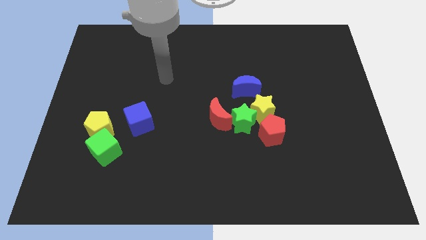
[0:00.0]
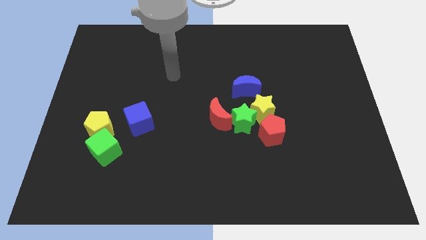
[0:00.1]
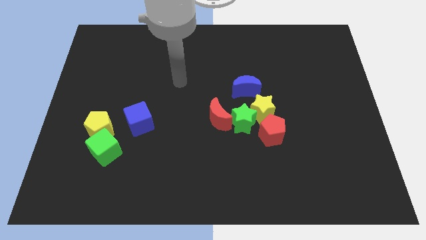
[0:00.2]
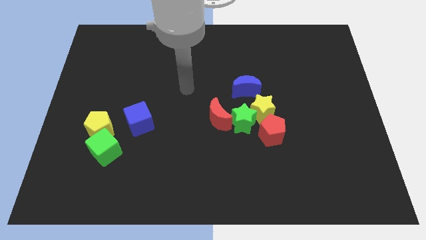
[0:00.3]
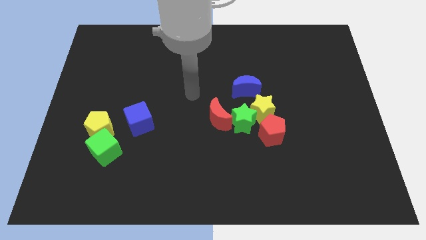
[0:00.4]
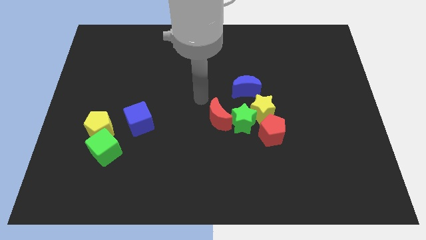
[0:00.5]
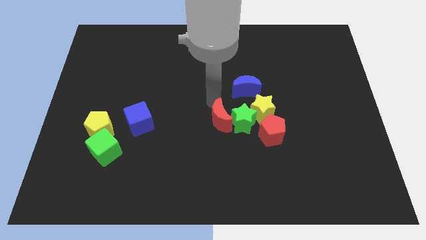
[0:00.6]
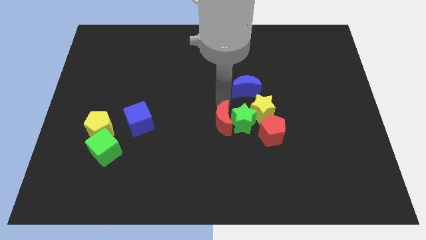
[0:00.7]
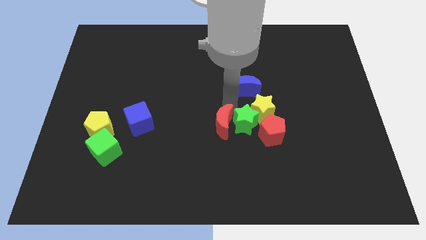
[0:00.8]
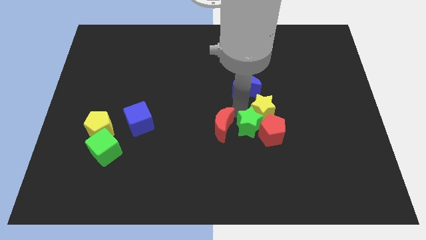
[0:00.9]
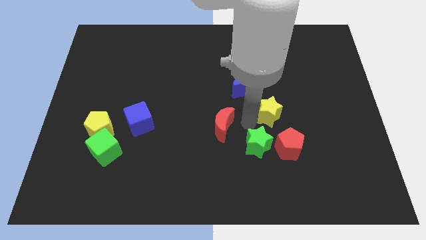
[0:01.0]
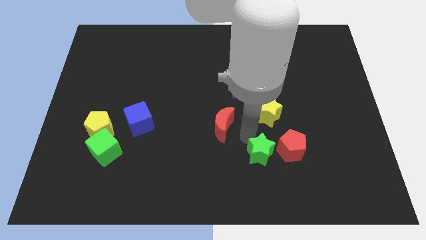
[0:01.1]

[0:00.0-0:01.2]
pull the red moon apart from the green star

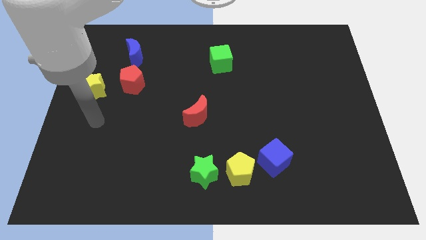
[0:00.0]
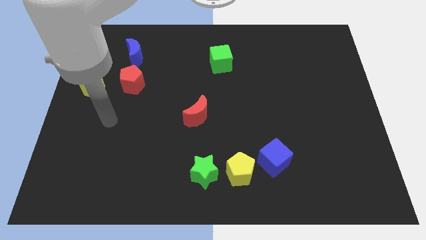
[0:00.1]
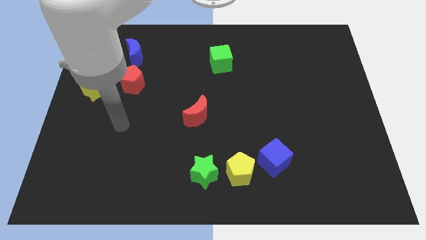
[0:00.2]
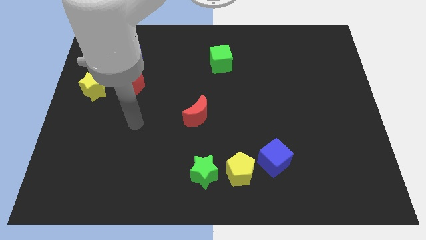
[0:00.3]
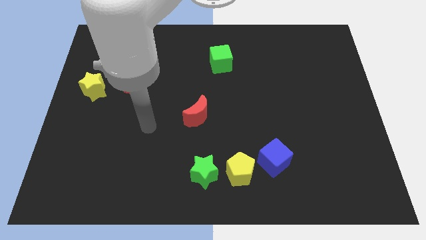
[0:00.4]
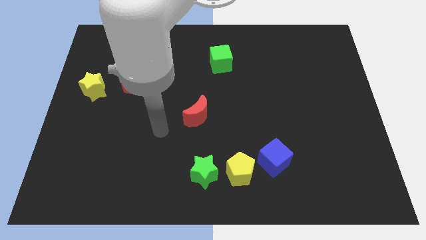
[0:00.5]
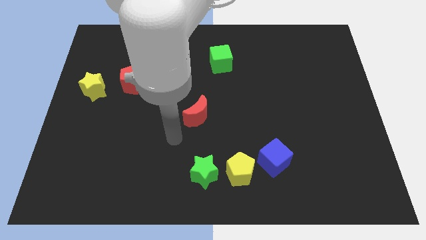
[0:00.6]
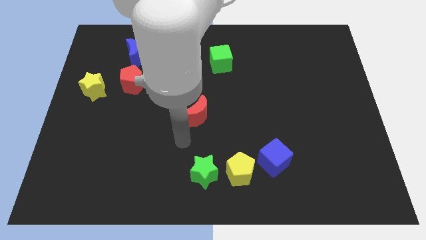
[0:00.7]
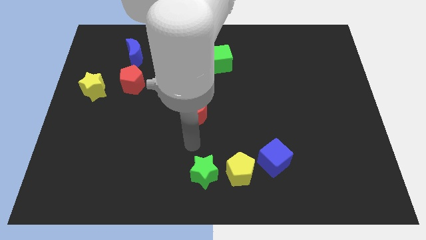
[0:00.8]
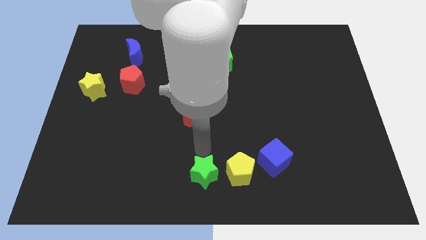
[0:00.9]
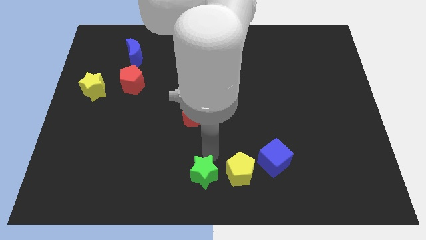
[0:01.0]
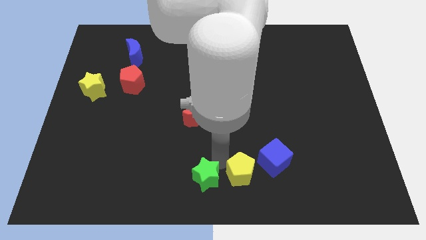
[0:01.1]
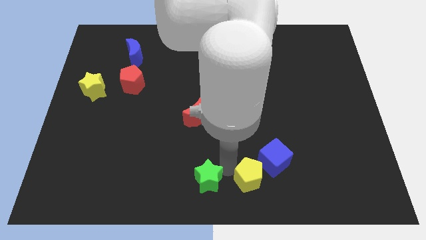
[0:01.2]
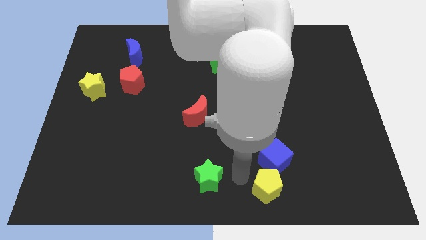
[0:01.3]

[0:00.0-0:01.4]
move the green star away from the yellow pentagon

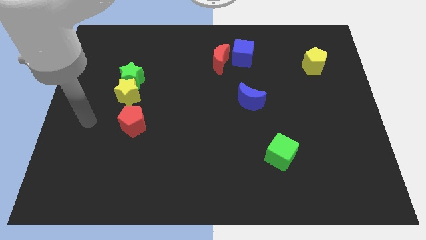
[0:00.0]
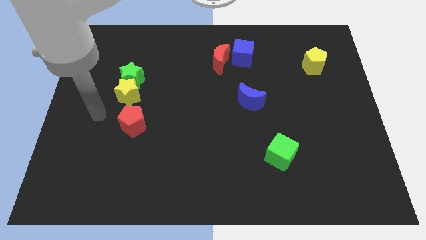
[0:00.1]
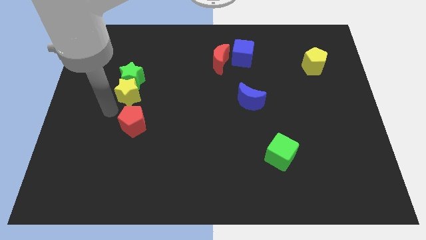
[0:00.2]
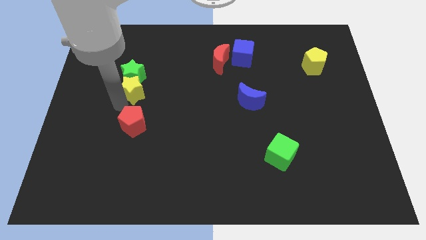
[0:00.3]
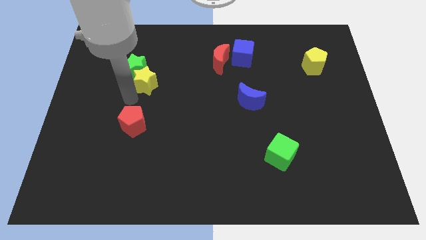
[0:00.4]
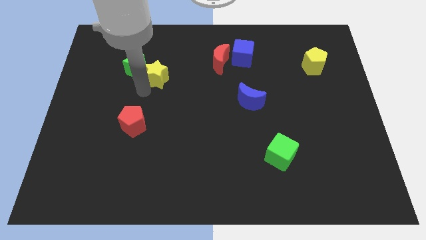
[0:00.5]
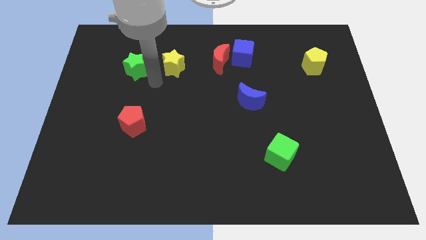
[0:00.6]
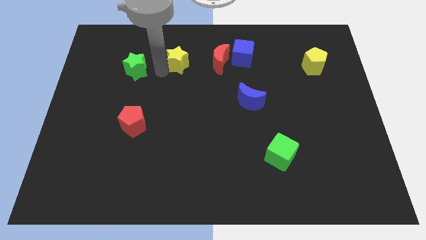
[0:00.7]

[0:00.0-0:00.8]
separate the green star from the yellow star

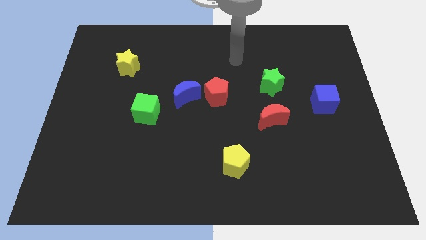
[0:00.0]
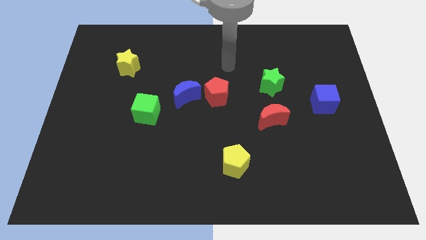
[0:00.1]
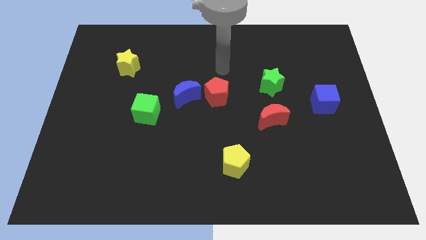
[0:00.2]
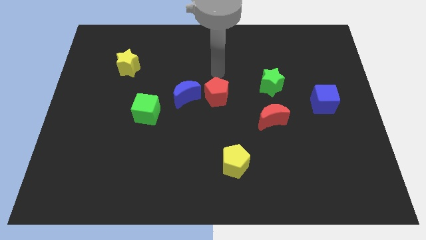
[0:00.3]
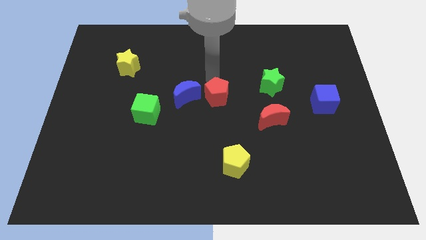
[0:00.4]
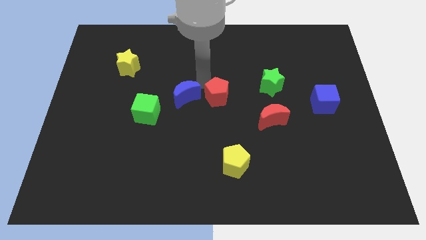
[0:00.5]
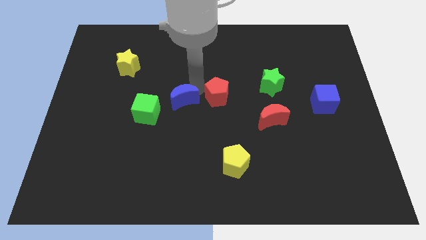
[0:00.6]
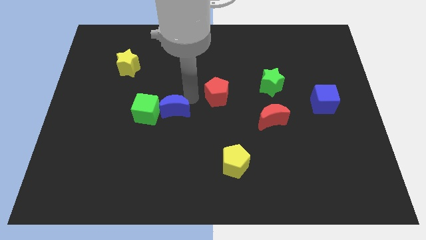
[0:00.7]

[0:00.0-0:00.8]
pull the red pentagon apart from the blue moon

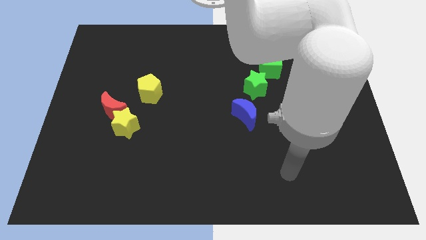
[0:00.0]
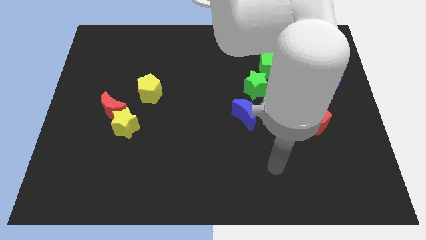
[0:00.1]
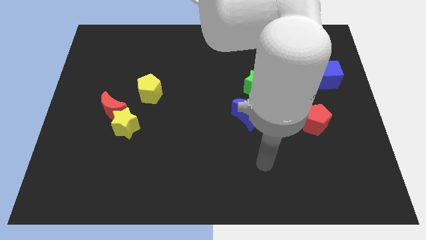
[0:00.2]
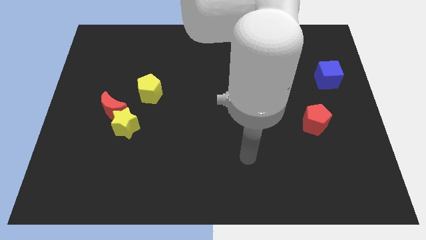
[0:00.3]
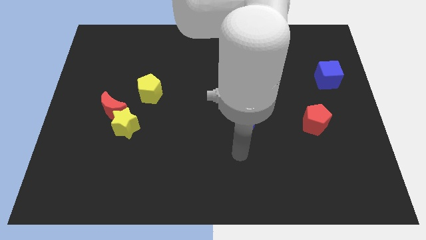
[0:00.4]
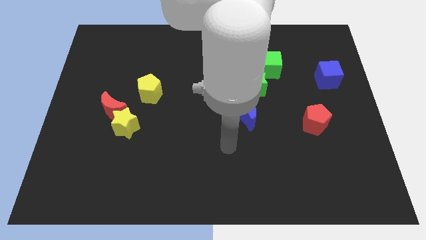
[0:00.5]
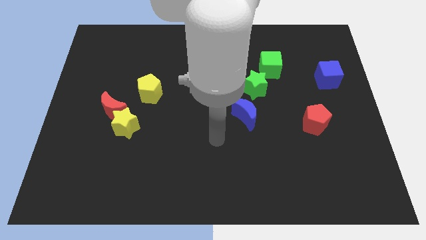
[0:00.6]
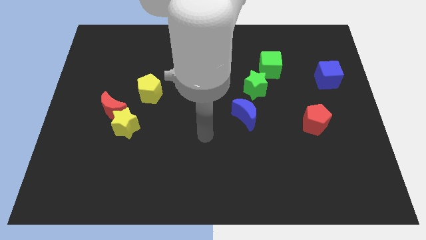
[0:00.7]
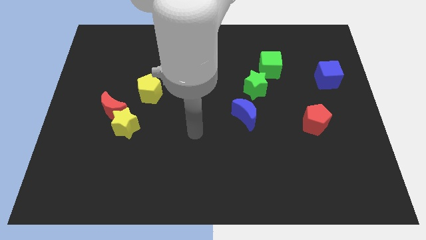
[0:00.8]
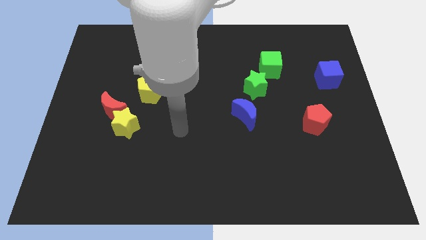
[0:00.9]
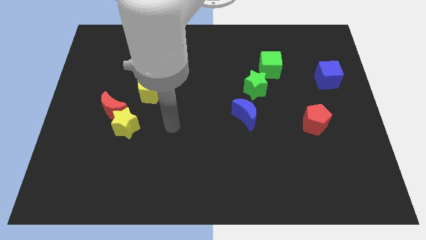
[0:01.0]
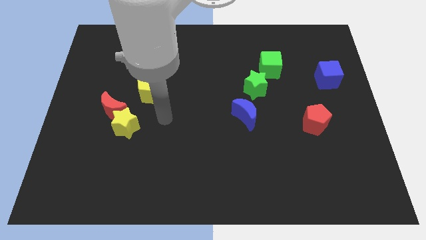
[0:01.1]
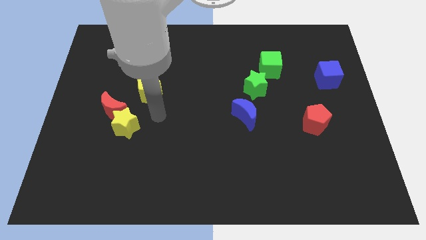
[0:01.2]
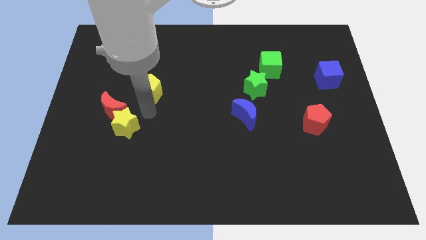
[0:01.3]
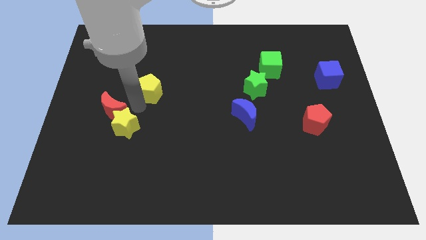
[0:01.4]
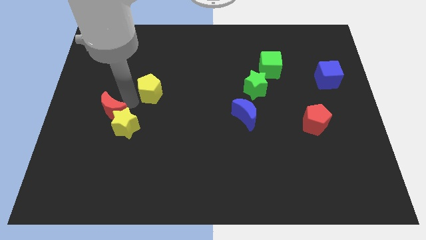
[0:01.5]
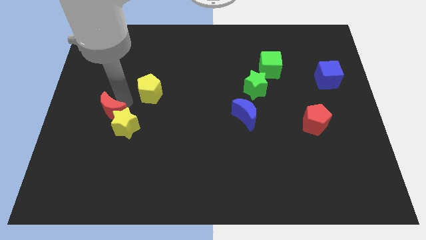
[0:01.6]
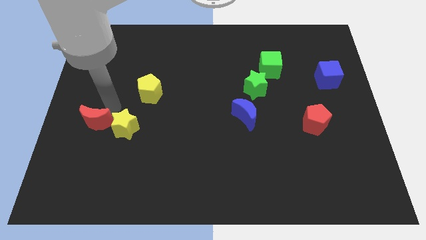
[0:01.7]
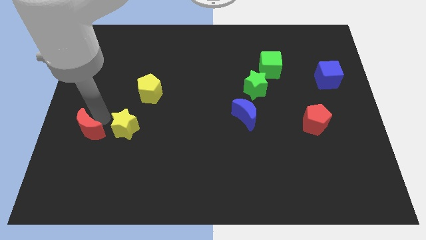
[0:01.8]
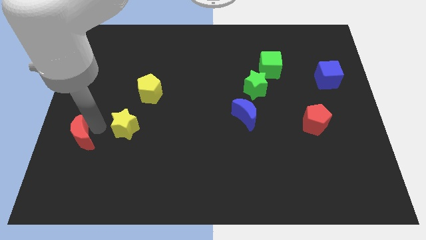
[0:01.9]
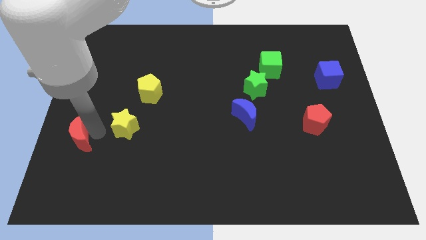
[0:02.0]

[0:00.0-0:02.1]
pull the yellow star apart from the red moon

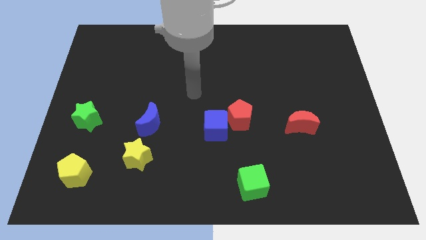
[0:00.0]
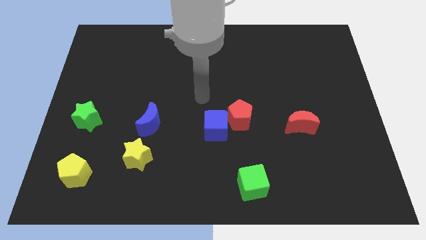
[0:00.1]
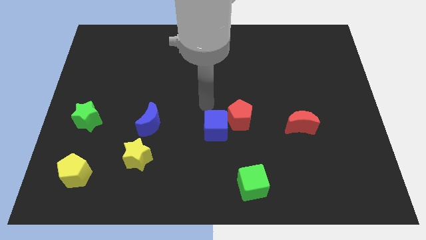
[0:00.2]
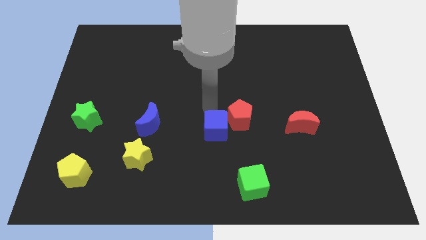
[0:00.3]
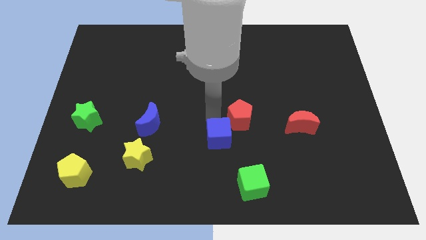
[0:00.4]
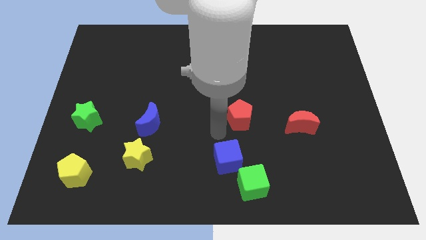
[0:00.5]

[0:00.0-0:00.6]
move the red pentagon away from the blue cube

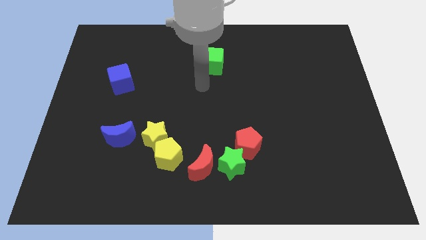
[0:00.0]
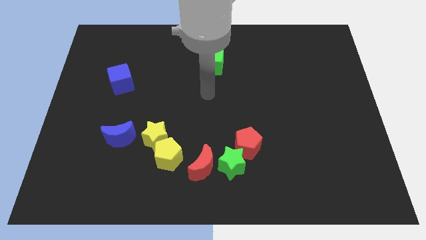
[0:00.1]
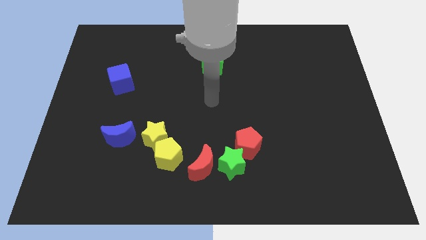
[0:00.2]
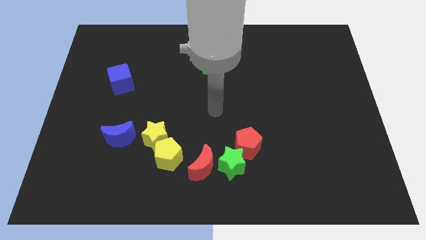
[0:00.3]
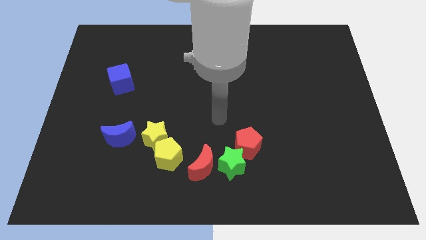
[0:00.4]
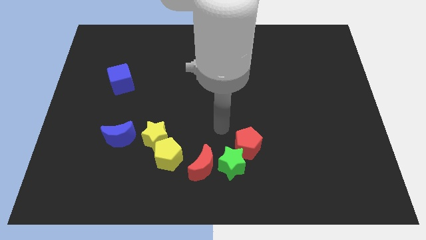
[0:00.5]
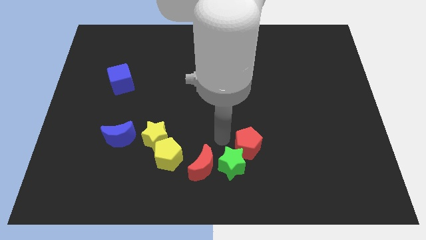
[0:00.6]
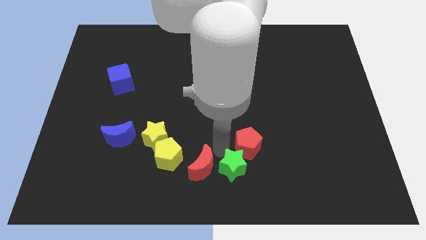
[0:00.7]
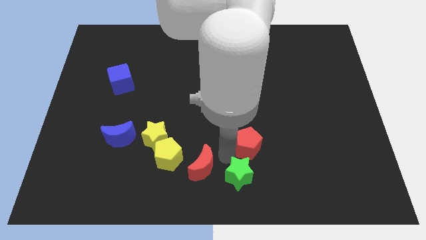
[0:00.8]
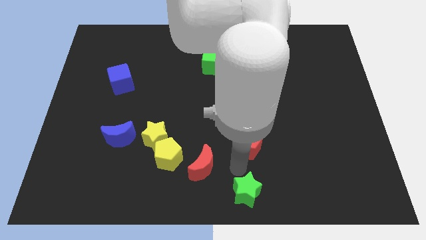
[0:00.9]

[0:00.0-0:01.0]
move the red pentagon away from the green star

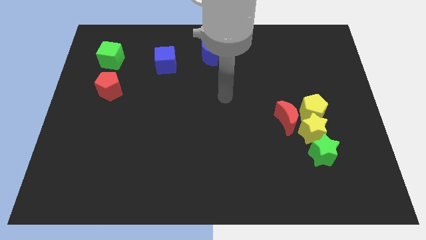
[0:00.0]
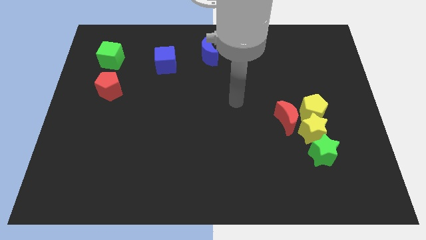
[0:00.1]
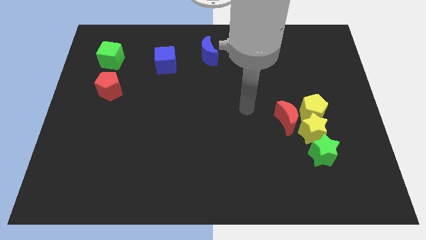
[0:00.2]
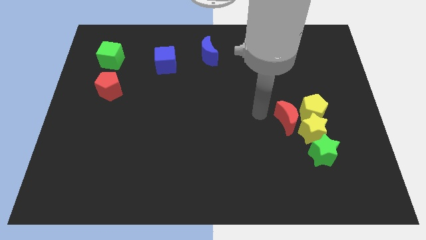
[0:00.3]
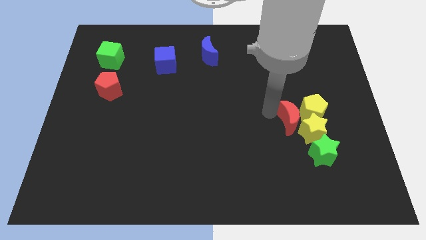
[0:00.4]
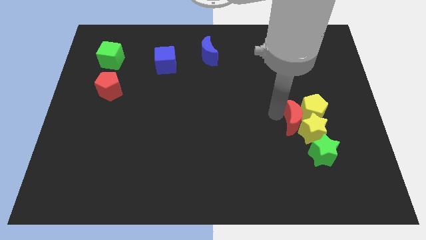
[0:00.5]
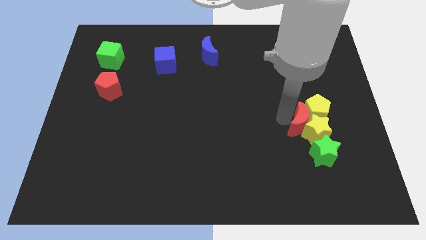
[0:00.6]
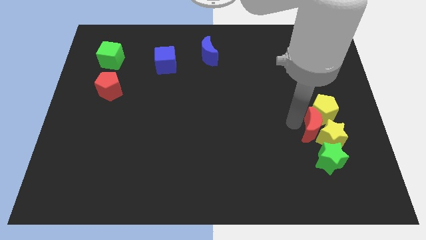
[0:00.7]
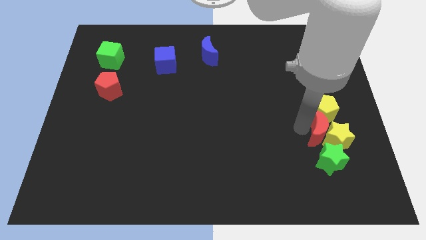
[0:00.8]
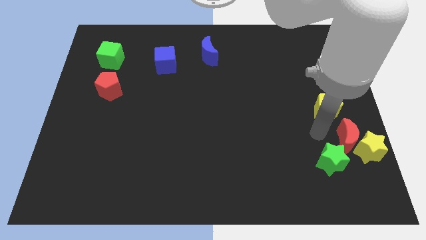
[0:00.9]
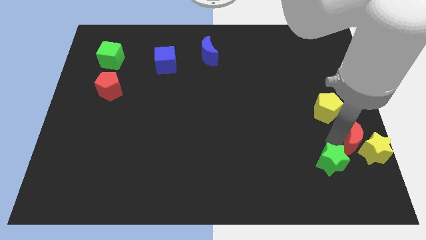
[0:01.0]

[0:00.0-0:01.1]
move the green star away from the yellow star

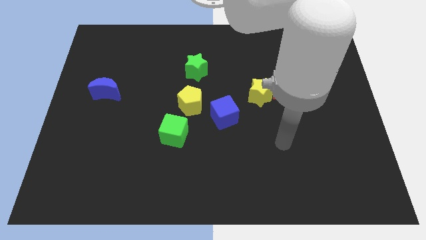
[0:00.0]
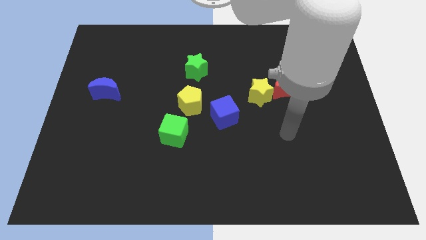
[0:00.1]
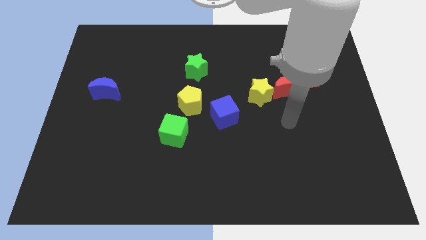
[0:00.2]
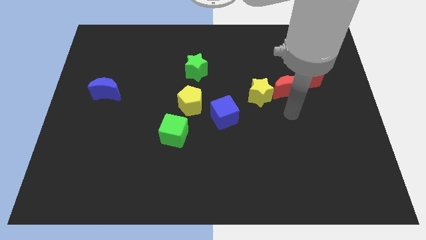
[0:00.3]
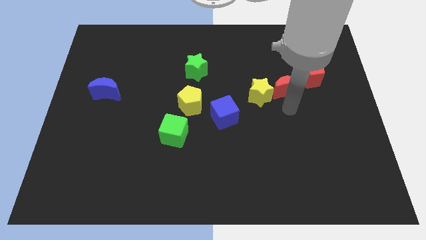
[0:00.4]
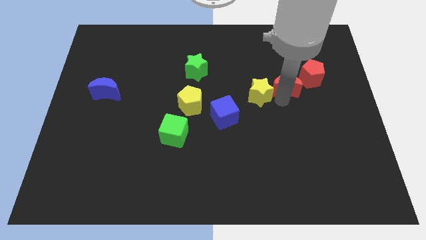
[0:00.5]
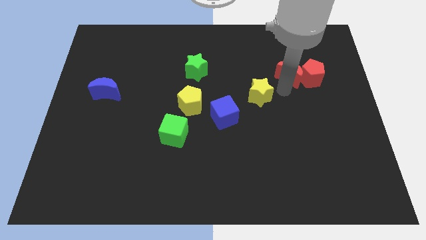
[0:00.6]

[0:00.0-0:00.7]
move the yellow star away from the red moon
